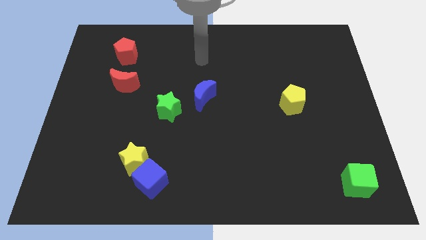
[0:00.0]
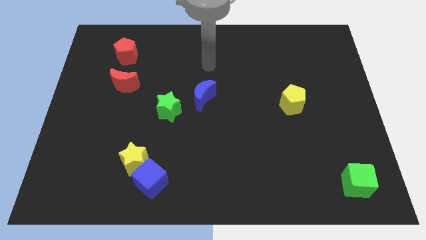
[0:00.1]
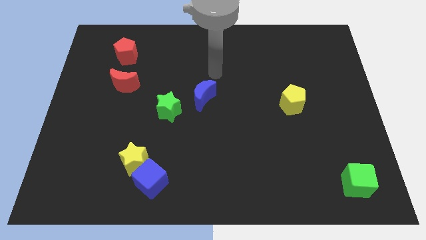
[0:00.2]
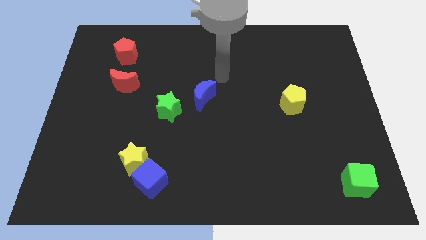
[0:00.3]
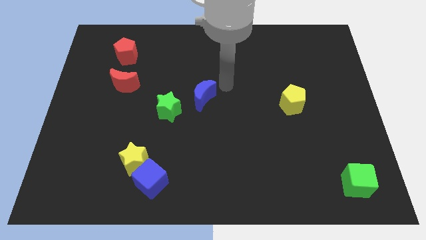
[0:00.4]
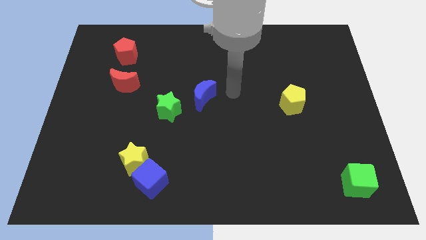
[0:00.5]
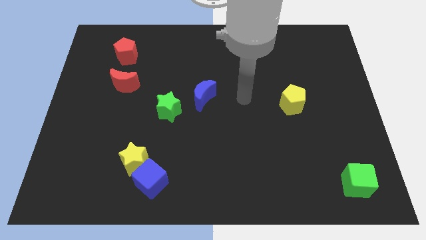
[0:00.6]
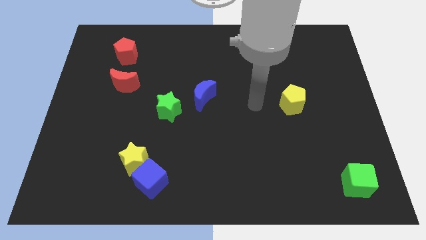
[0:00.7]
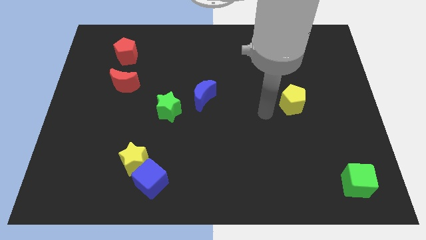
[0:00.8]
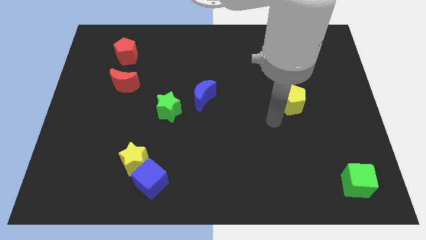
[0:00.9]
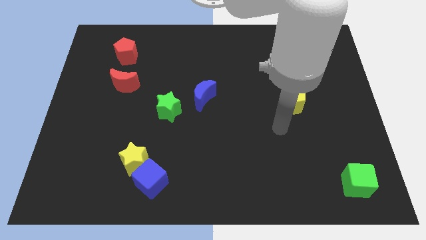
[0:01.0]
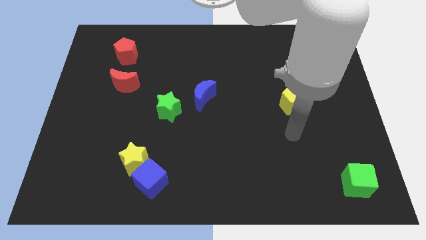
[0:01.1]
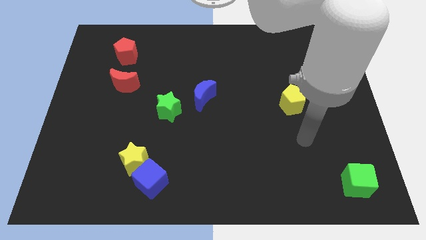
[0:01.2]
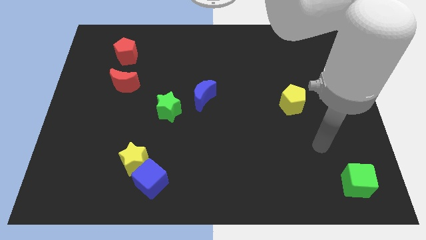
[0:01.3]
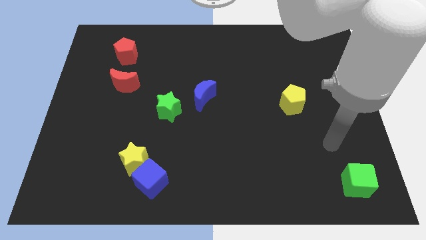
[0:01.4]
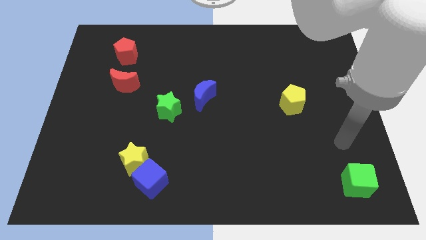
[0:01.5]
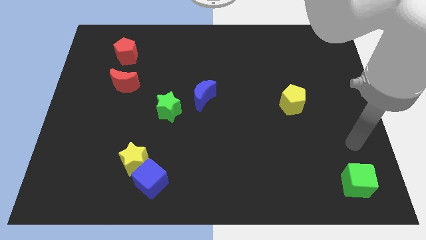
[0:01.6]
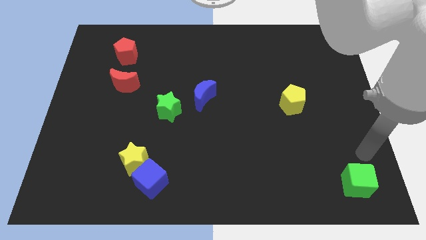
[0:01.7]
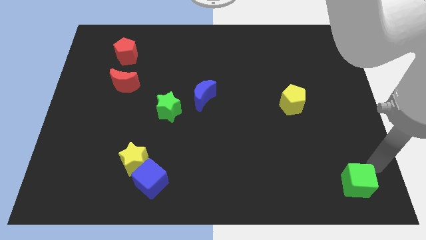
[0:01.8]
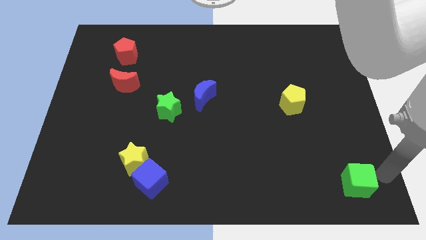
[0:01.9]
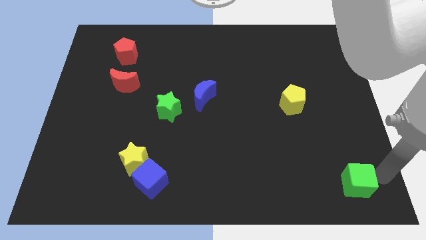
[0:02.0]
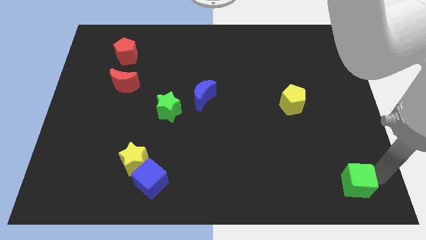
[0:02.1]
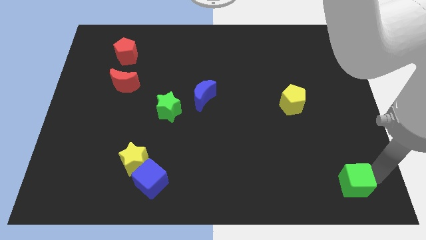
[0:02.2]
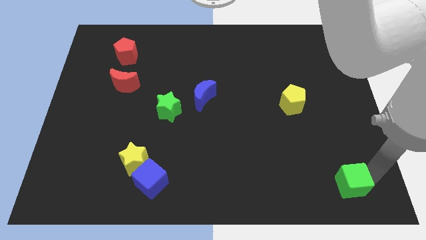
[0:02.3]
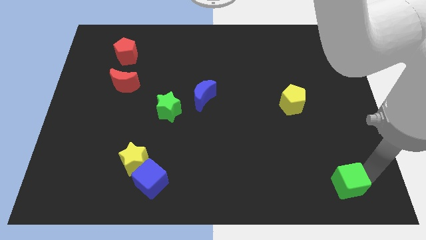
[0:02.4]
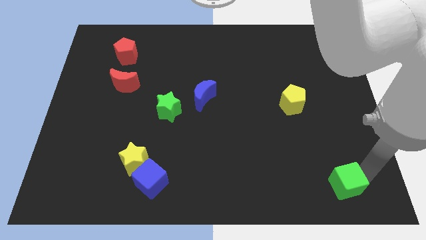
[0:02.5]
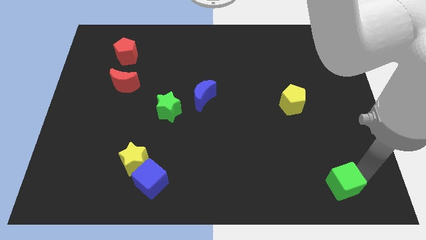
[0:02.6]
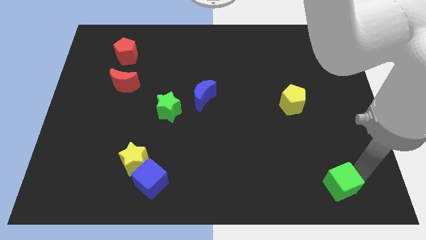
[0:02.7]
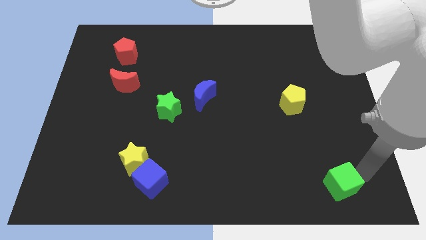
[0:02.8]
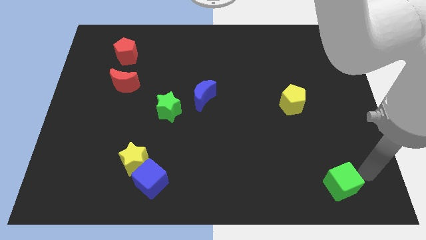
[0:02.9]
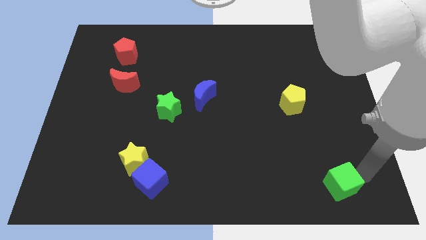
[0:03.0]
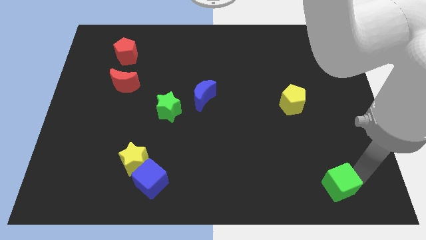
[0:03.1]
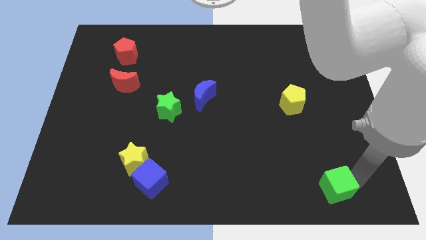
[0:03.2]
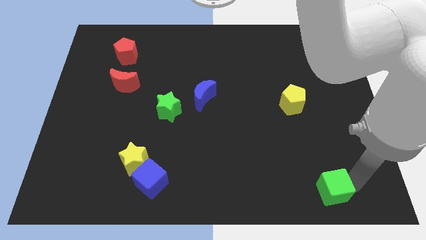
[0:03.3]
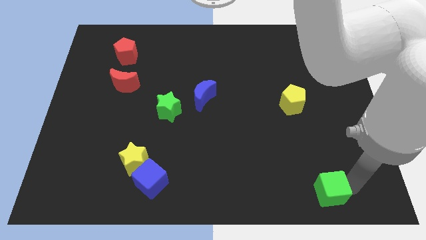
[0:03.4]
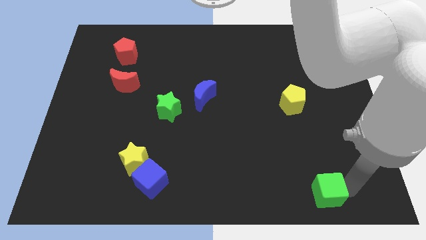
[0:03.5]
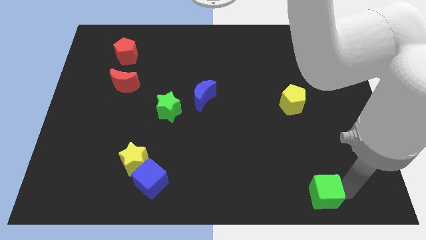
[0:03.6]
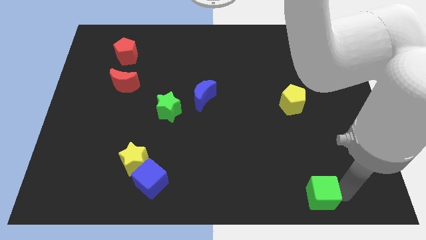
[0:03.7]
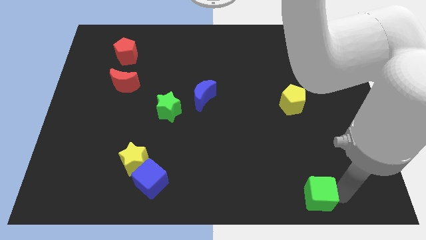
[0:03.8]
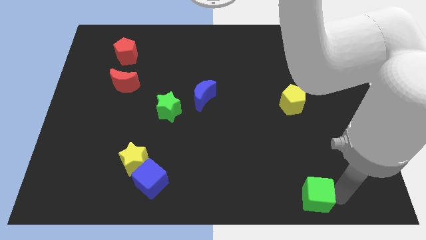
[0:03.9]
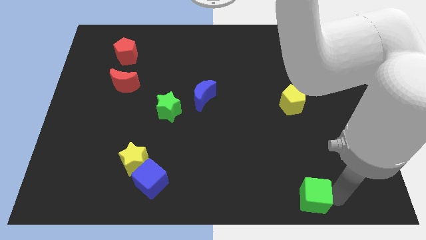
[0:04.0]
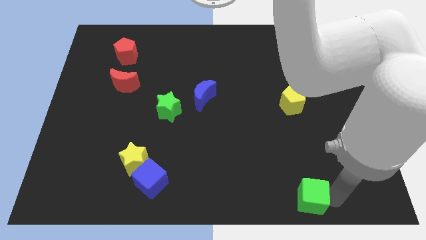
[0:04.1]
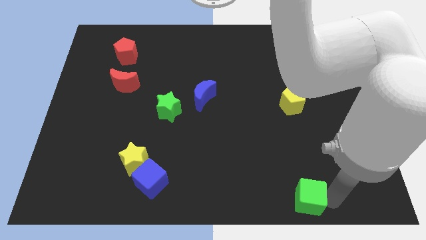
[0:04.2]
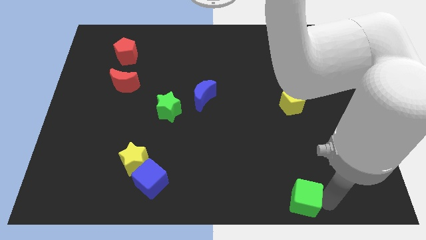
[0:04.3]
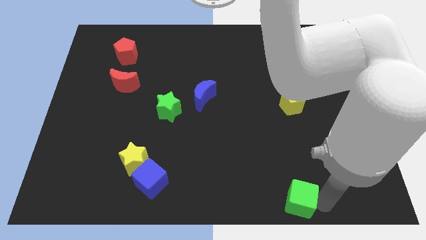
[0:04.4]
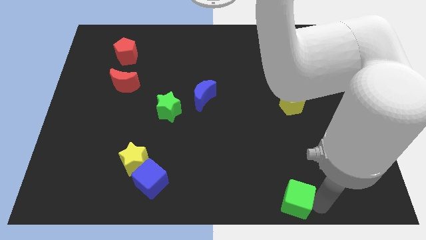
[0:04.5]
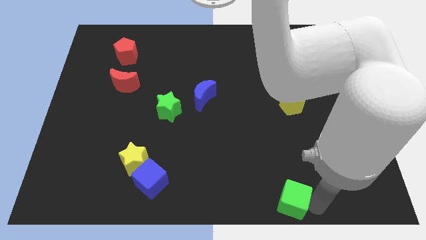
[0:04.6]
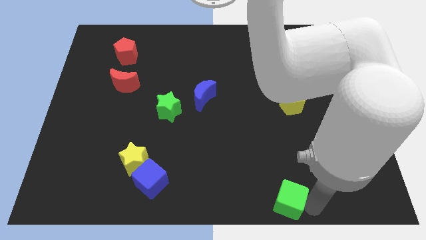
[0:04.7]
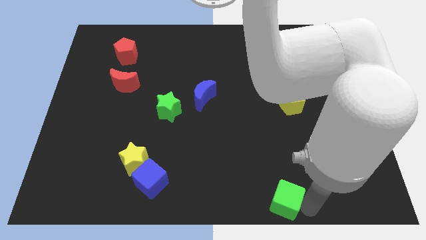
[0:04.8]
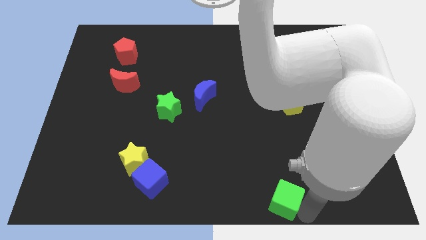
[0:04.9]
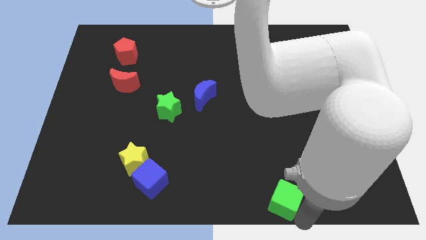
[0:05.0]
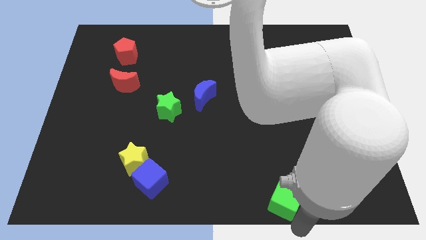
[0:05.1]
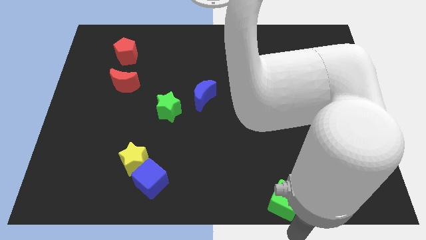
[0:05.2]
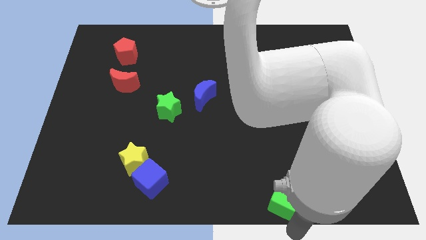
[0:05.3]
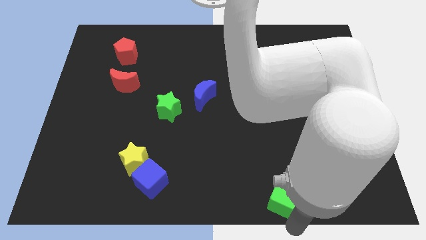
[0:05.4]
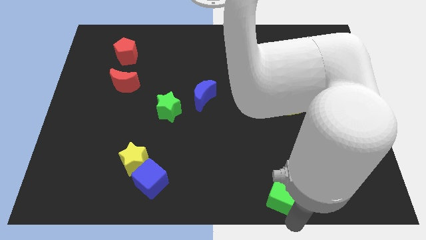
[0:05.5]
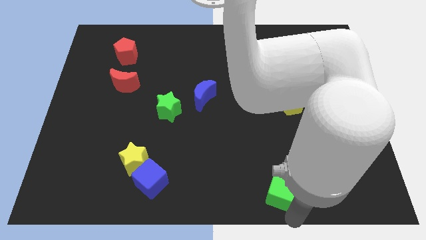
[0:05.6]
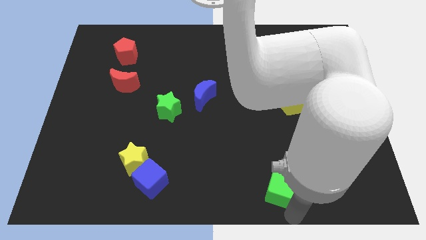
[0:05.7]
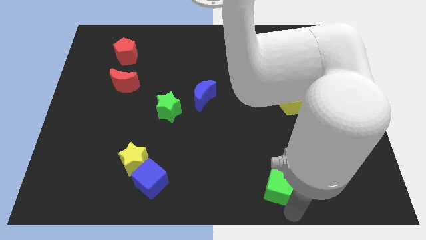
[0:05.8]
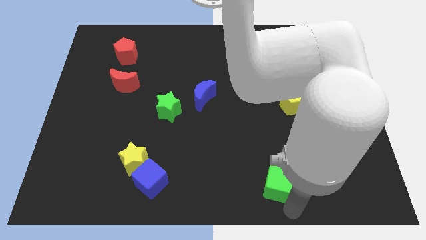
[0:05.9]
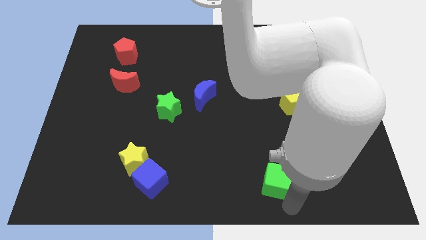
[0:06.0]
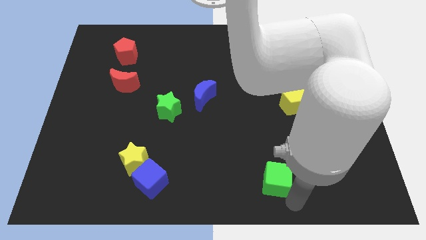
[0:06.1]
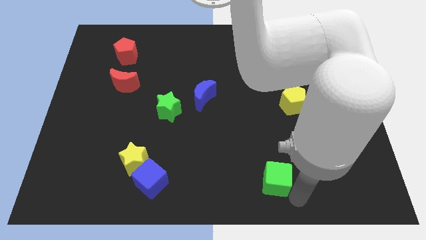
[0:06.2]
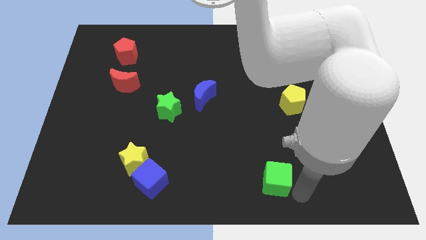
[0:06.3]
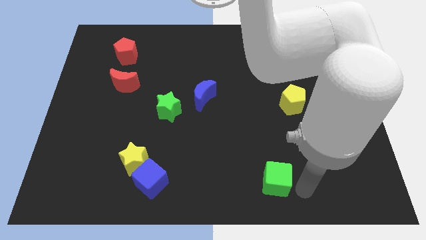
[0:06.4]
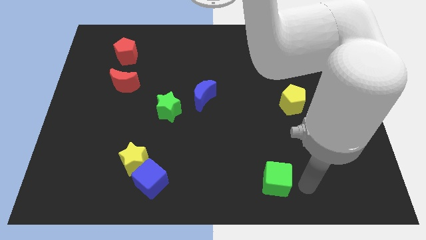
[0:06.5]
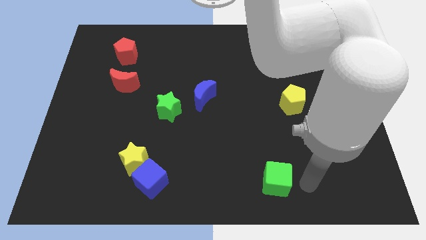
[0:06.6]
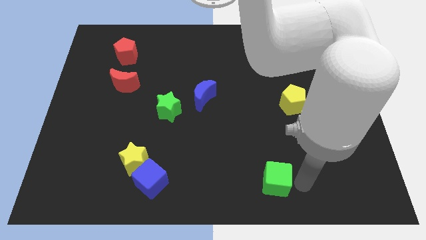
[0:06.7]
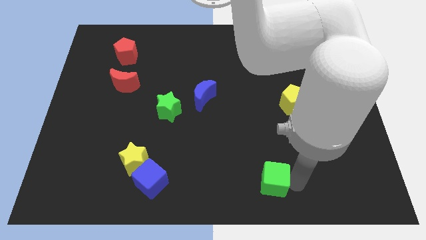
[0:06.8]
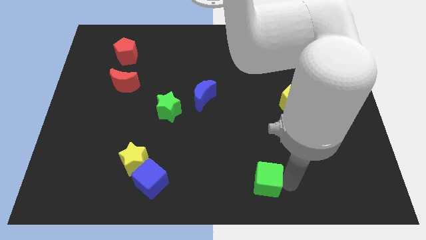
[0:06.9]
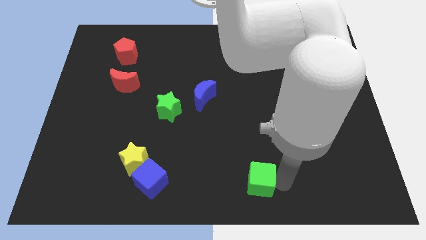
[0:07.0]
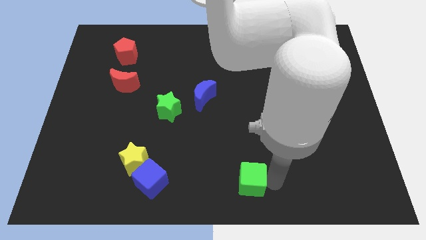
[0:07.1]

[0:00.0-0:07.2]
slide the green cube left

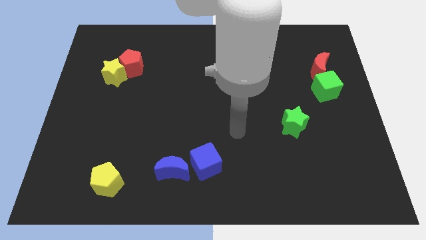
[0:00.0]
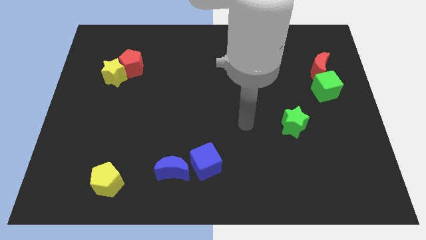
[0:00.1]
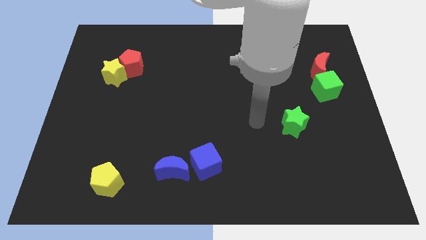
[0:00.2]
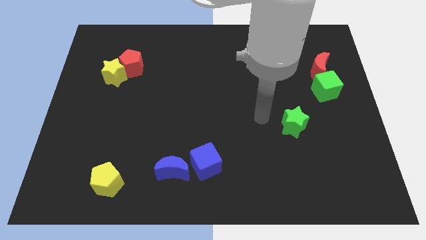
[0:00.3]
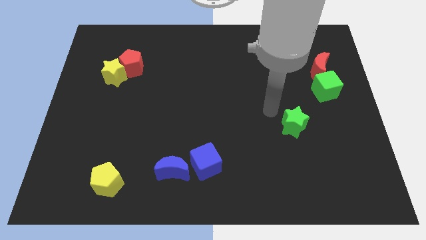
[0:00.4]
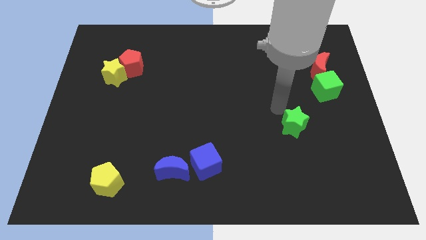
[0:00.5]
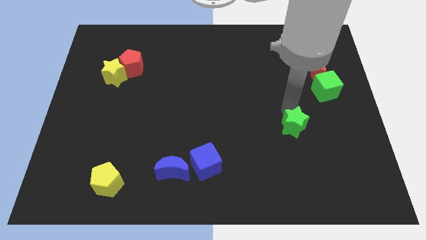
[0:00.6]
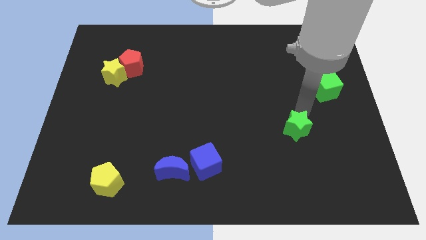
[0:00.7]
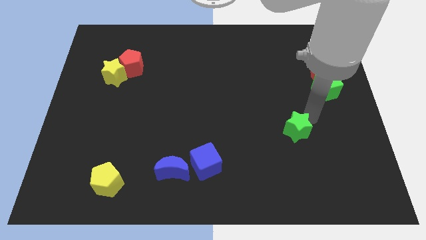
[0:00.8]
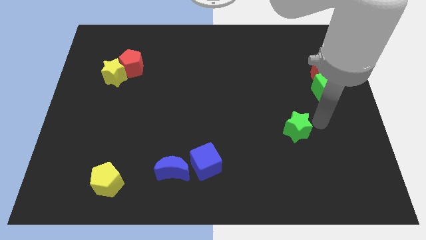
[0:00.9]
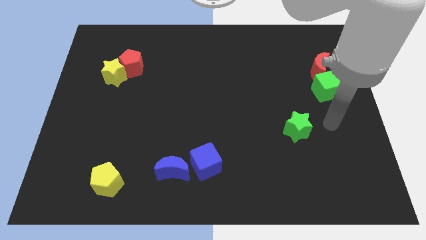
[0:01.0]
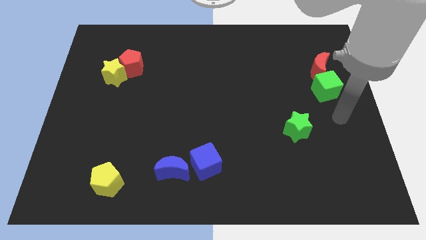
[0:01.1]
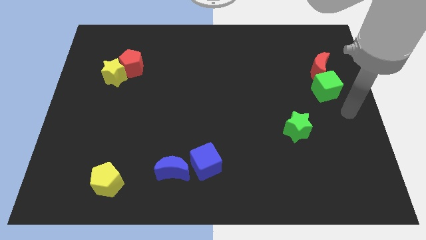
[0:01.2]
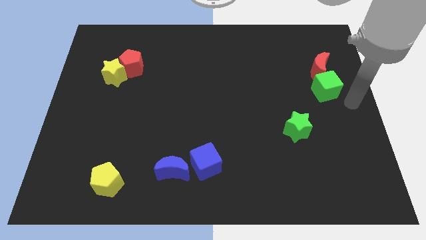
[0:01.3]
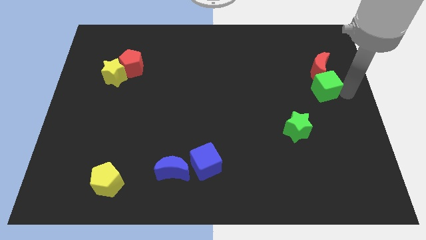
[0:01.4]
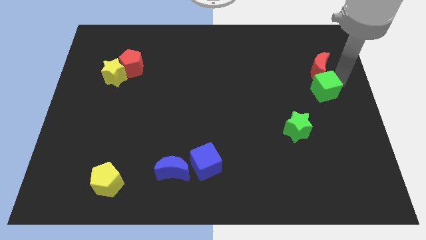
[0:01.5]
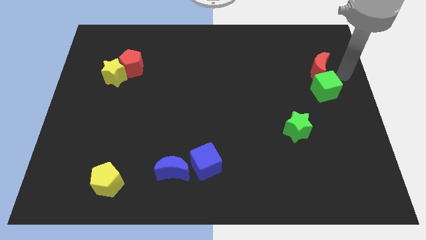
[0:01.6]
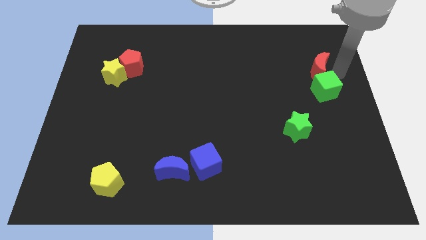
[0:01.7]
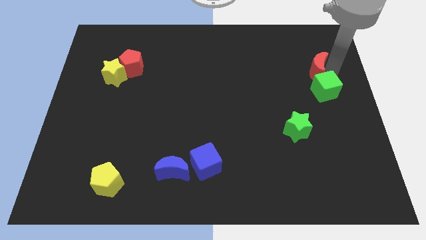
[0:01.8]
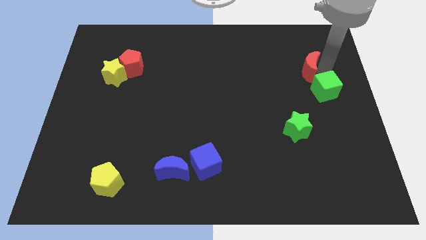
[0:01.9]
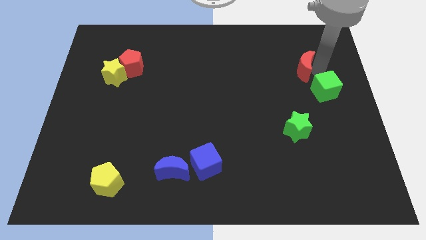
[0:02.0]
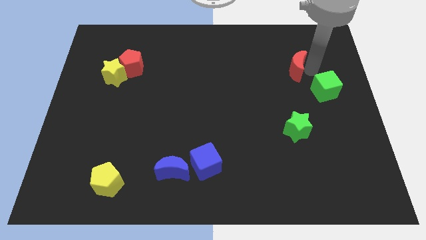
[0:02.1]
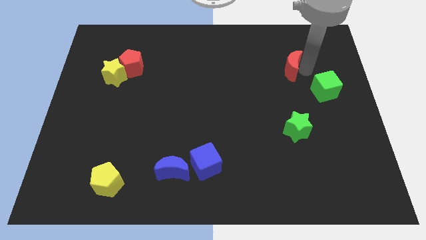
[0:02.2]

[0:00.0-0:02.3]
slide the red moon a little bit to the left
